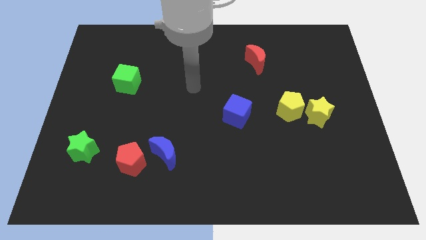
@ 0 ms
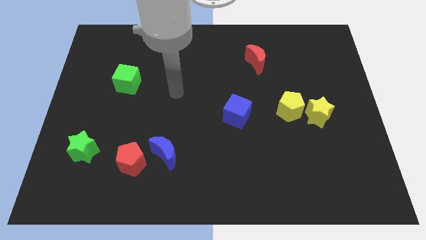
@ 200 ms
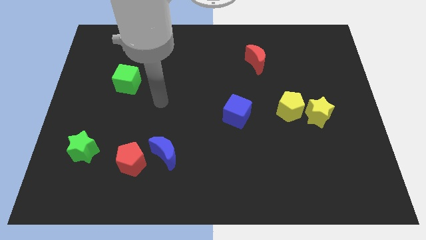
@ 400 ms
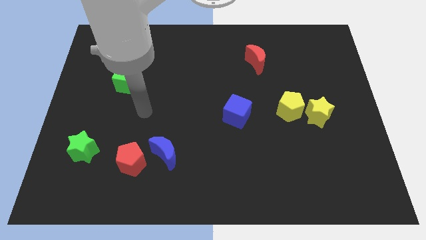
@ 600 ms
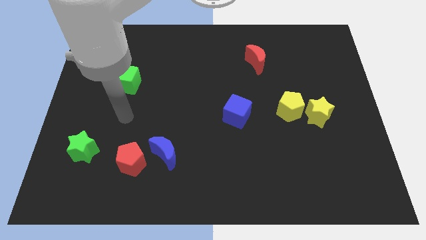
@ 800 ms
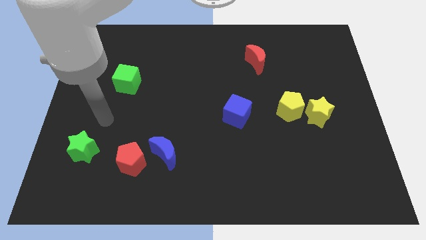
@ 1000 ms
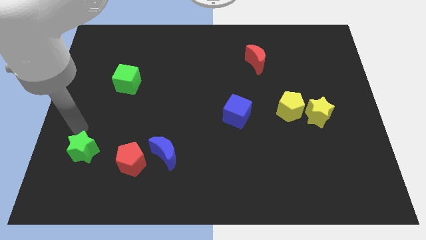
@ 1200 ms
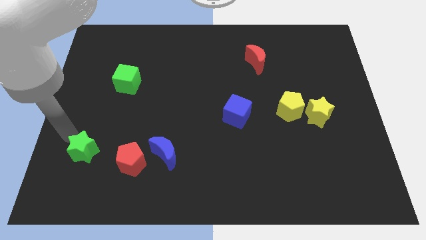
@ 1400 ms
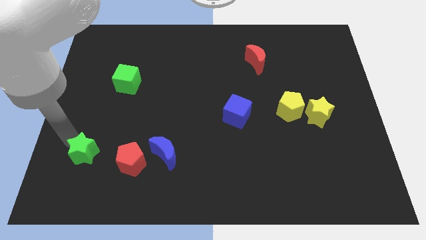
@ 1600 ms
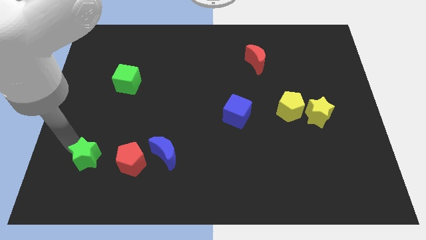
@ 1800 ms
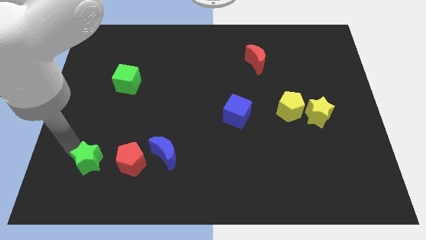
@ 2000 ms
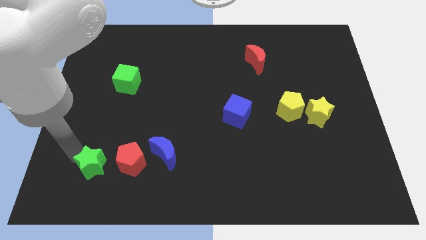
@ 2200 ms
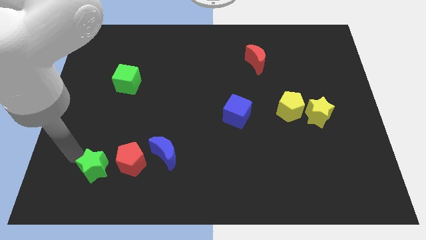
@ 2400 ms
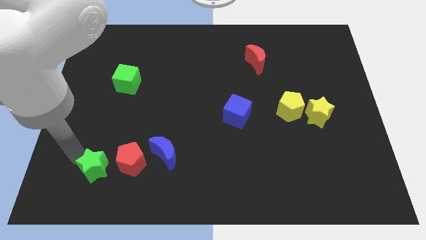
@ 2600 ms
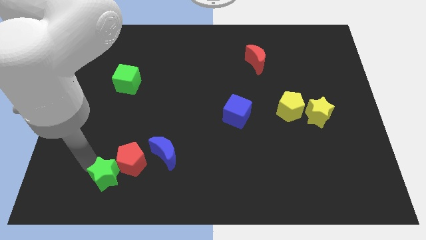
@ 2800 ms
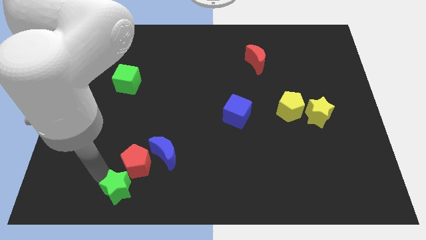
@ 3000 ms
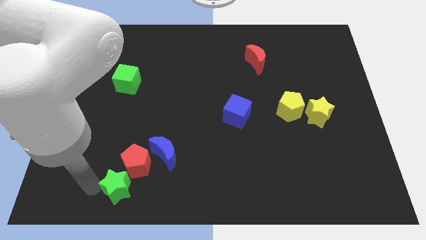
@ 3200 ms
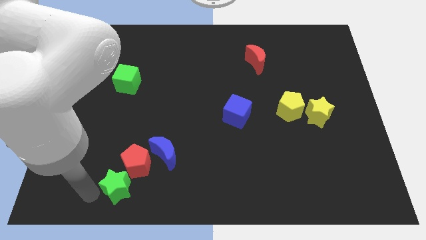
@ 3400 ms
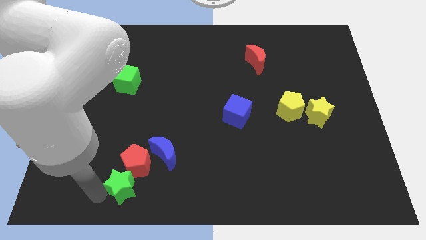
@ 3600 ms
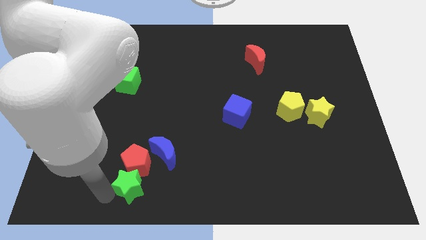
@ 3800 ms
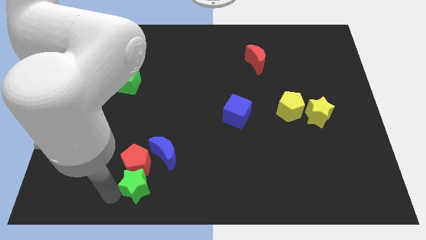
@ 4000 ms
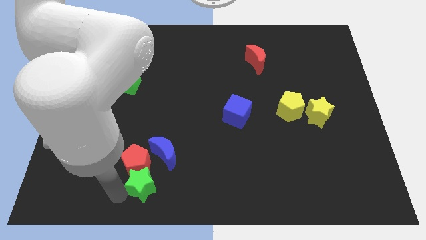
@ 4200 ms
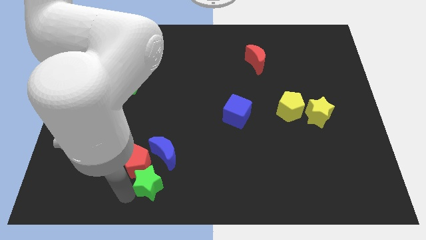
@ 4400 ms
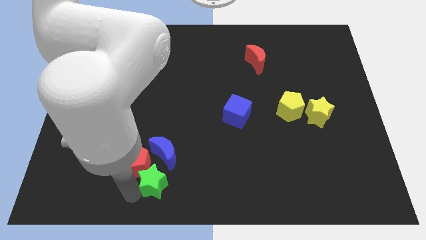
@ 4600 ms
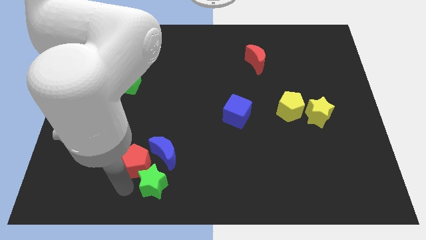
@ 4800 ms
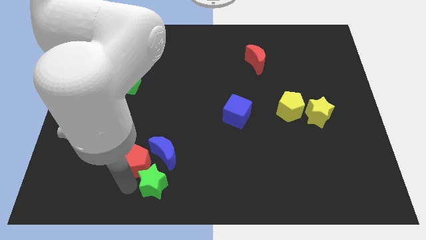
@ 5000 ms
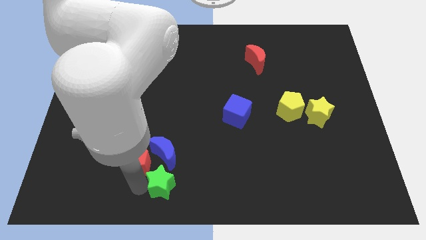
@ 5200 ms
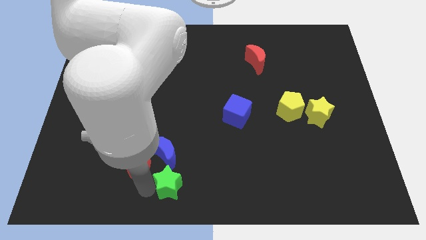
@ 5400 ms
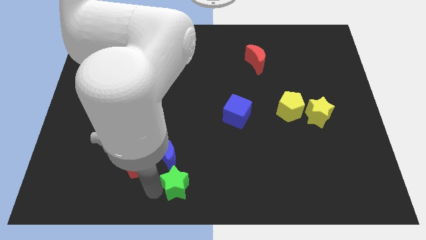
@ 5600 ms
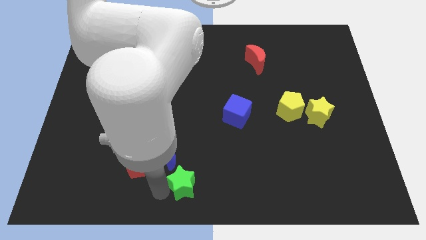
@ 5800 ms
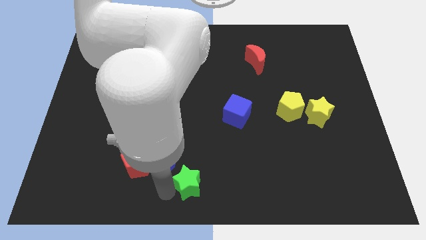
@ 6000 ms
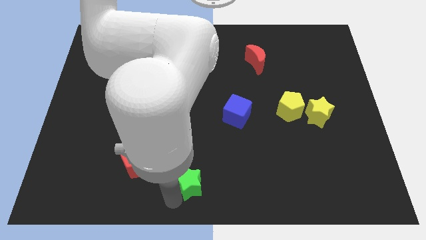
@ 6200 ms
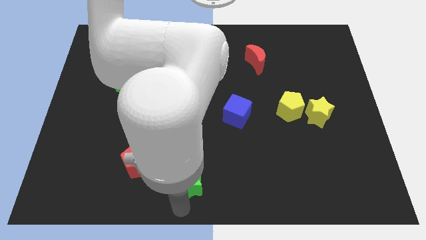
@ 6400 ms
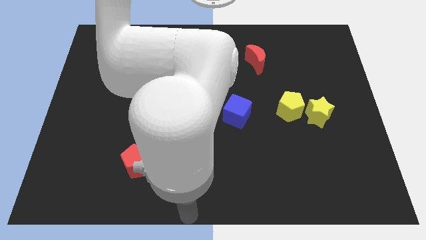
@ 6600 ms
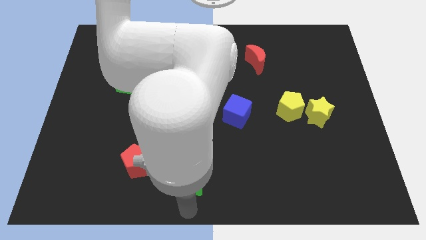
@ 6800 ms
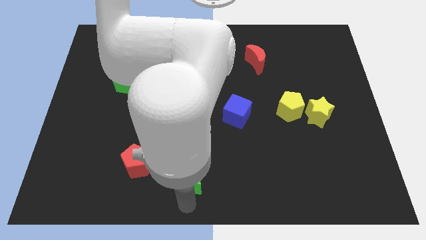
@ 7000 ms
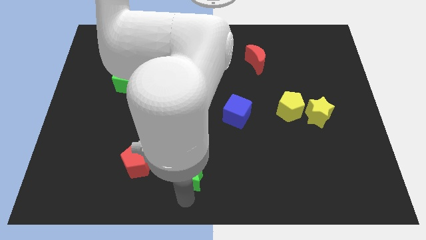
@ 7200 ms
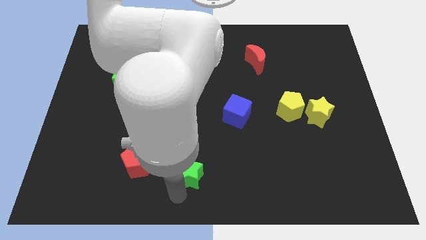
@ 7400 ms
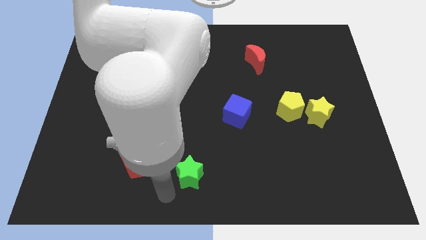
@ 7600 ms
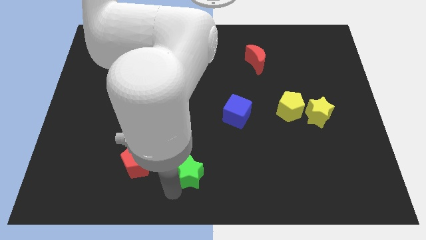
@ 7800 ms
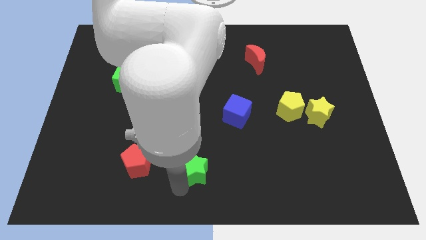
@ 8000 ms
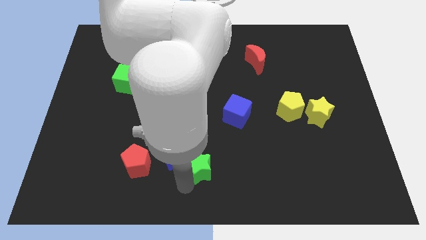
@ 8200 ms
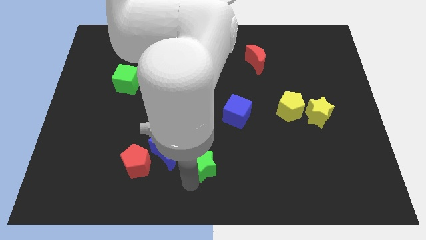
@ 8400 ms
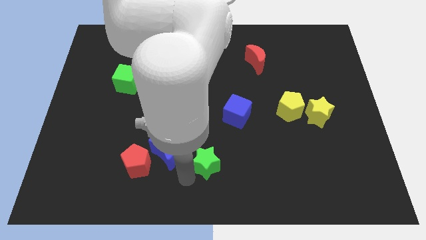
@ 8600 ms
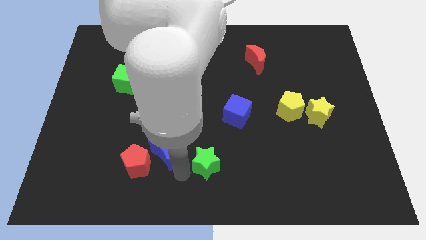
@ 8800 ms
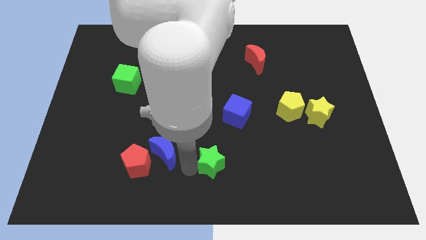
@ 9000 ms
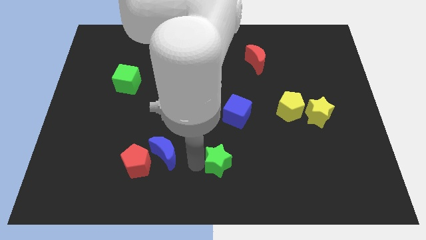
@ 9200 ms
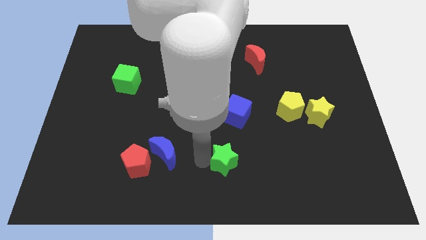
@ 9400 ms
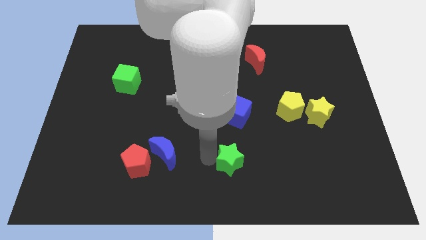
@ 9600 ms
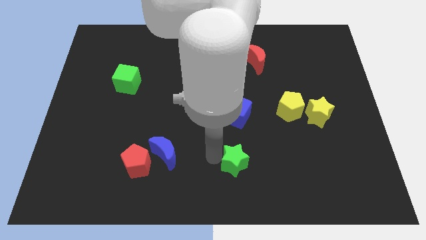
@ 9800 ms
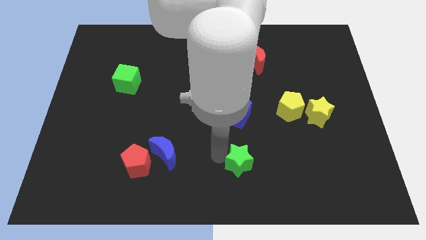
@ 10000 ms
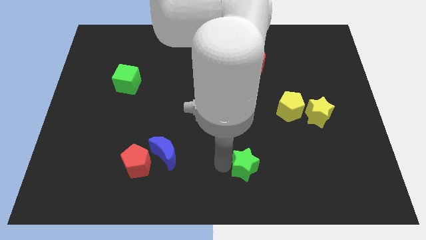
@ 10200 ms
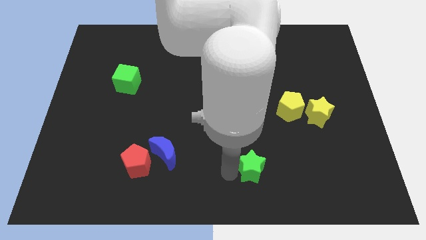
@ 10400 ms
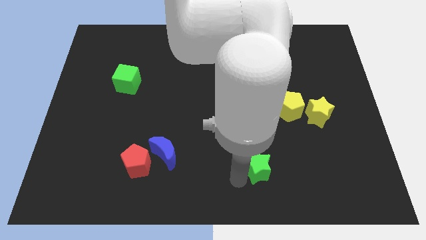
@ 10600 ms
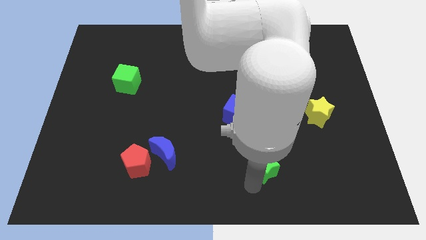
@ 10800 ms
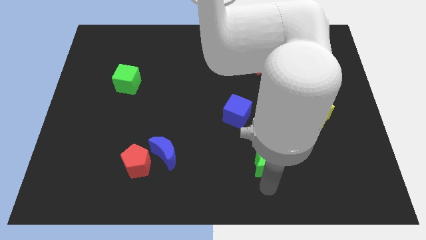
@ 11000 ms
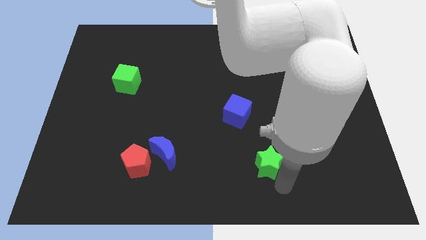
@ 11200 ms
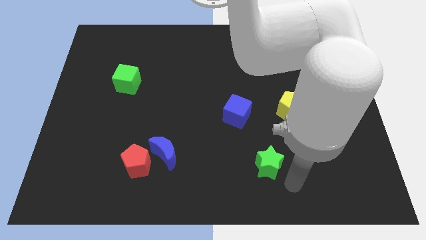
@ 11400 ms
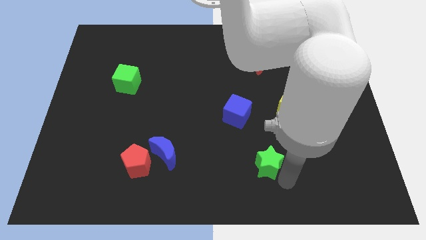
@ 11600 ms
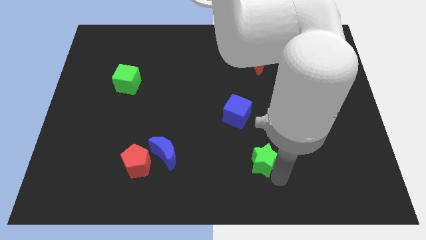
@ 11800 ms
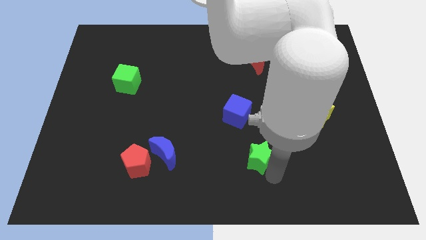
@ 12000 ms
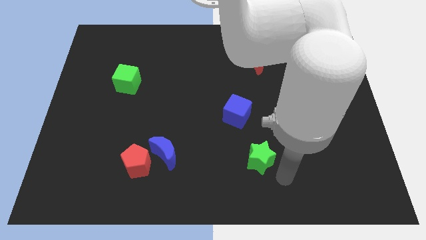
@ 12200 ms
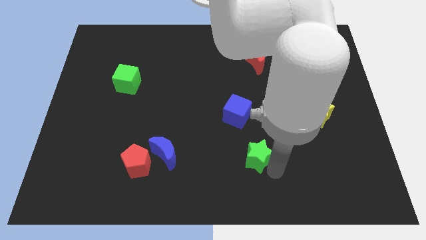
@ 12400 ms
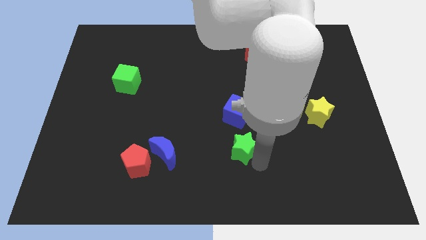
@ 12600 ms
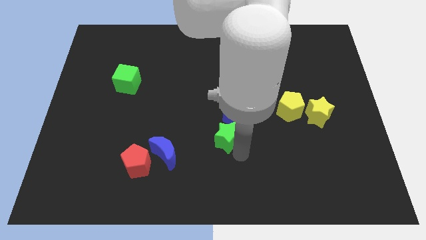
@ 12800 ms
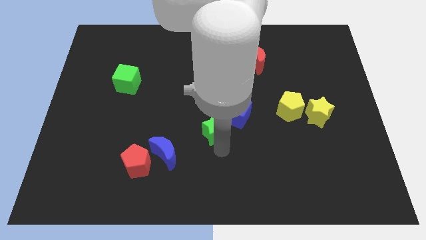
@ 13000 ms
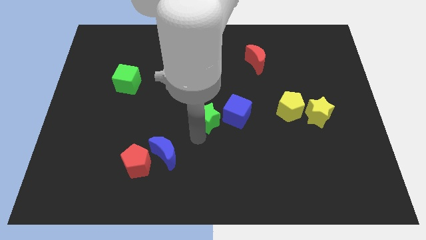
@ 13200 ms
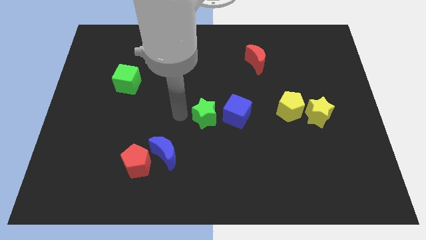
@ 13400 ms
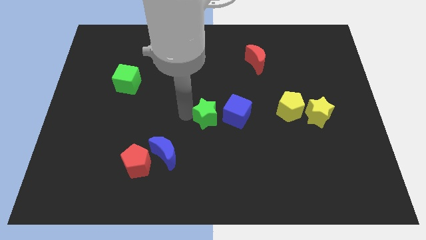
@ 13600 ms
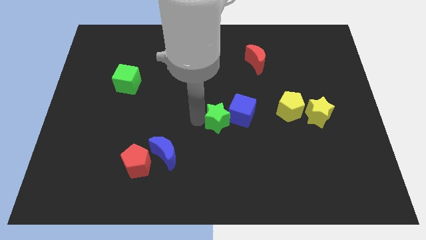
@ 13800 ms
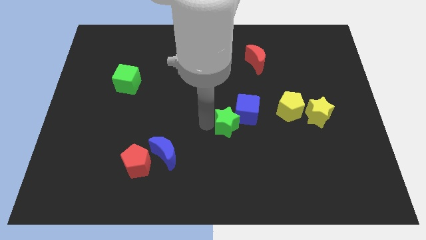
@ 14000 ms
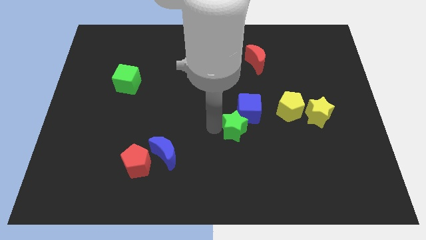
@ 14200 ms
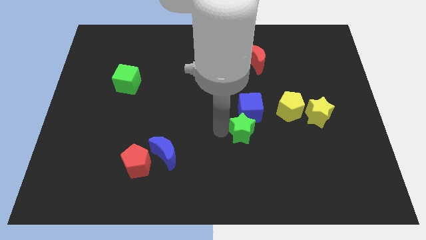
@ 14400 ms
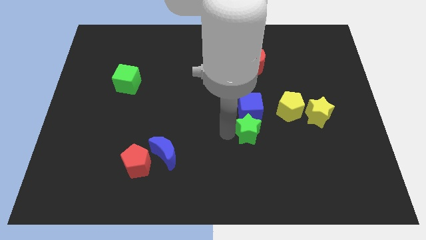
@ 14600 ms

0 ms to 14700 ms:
move the green star to the bottom left side of the yellow pentagon
